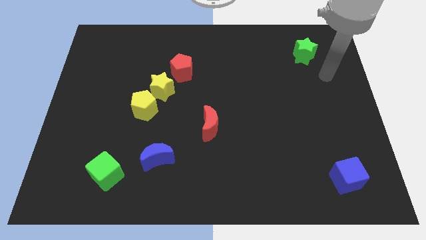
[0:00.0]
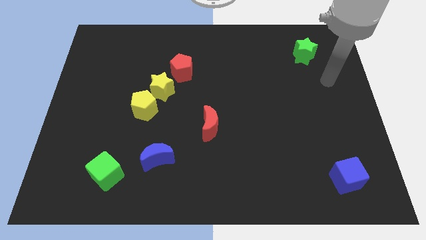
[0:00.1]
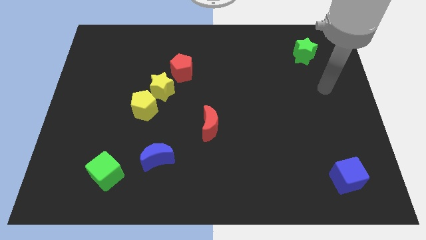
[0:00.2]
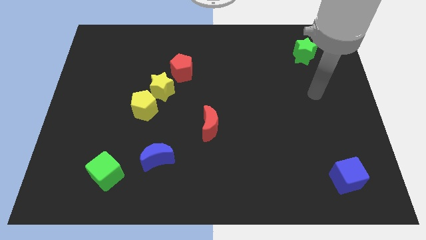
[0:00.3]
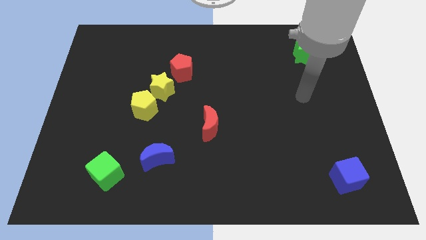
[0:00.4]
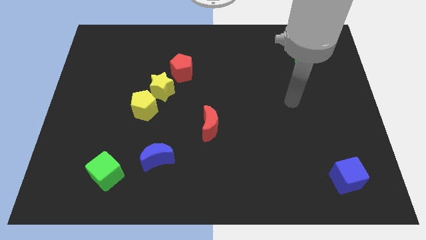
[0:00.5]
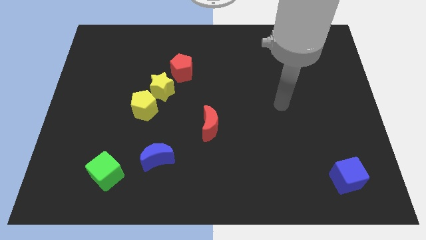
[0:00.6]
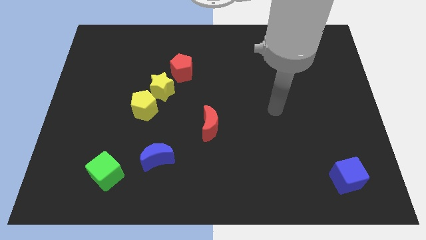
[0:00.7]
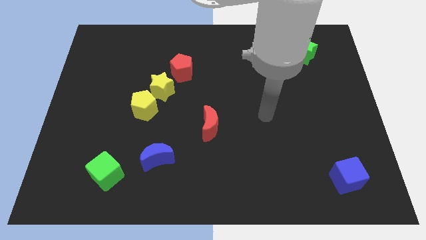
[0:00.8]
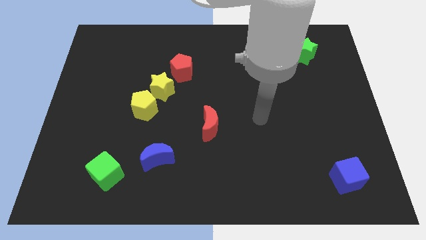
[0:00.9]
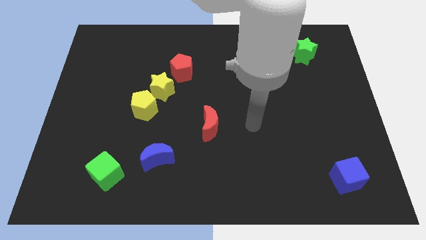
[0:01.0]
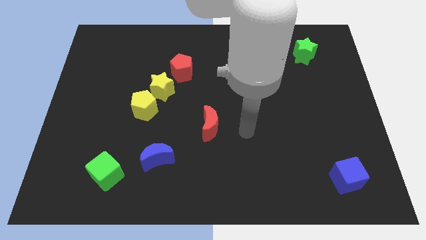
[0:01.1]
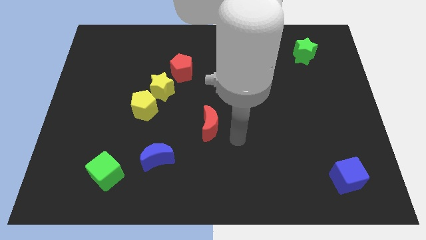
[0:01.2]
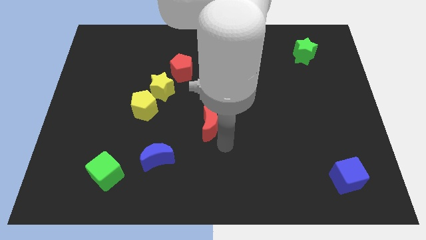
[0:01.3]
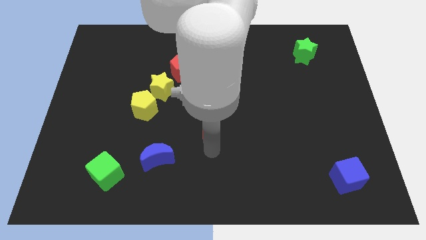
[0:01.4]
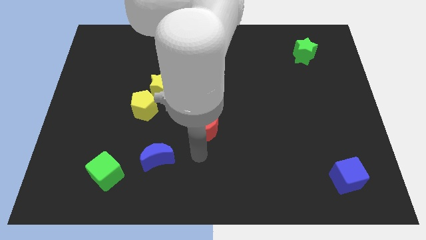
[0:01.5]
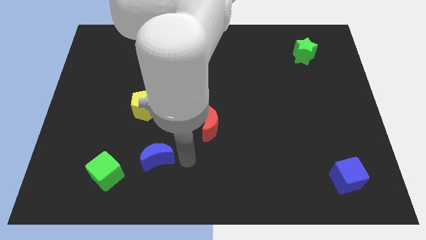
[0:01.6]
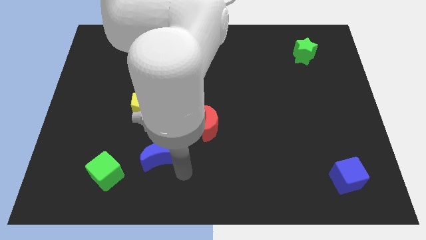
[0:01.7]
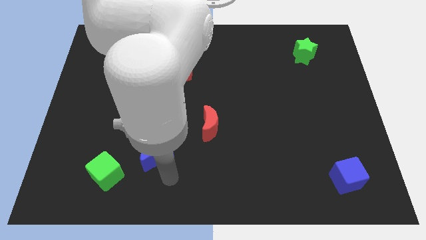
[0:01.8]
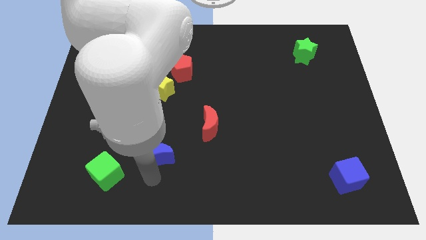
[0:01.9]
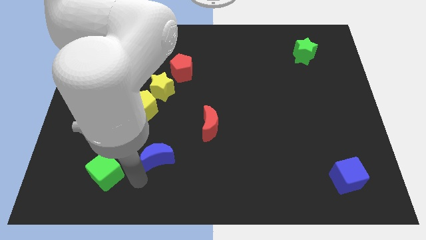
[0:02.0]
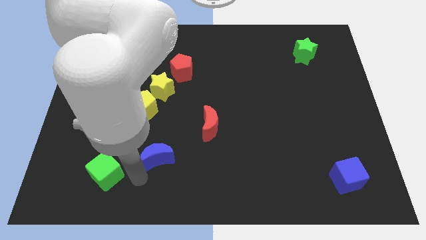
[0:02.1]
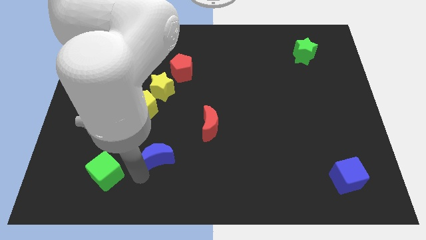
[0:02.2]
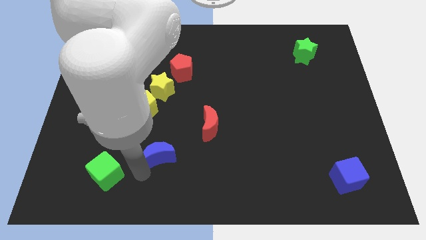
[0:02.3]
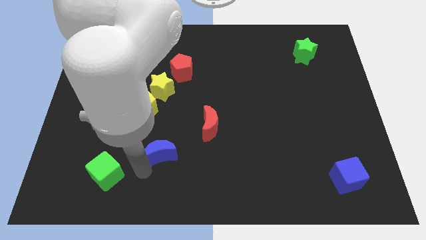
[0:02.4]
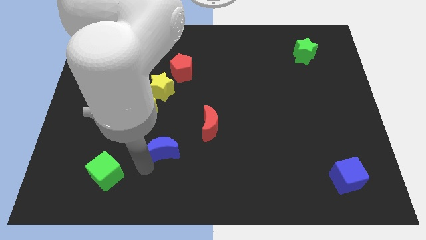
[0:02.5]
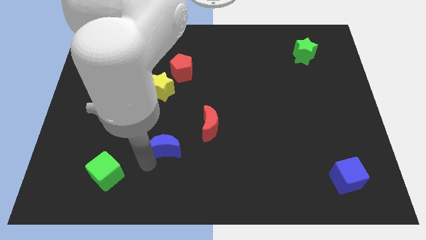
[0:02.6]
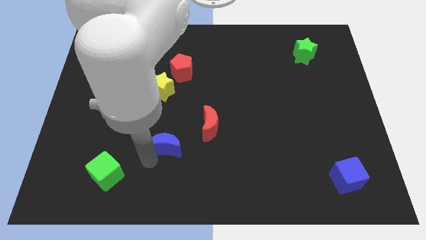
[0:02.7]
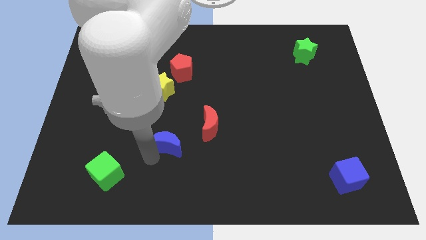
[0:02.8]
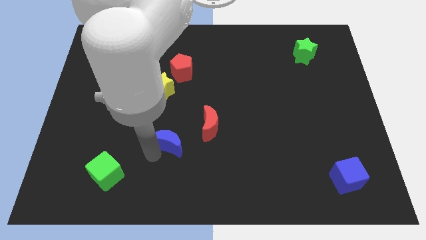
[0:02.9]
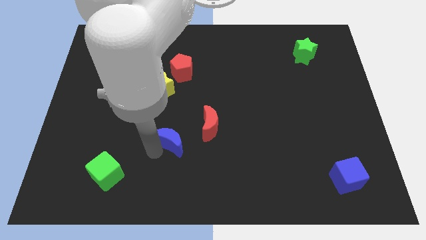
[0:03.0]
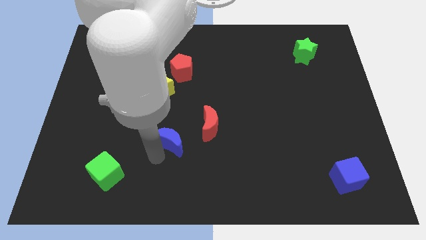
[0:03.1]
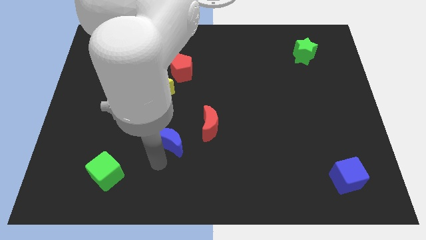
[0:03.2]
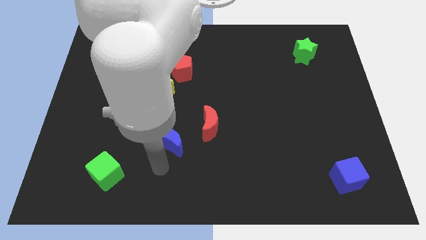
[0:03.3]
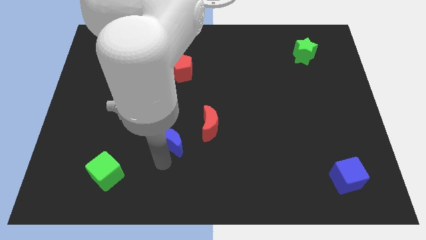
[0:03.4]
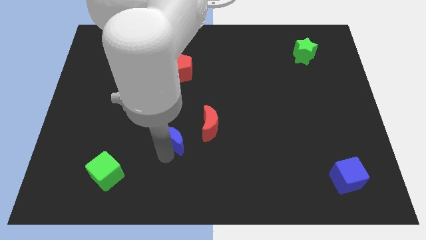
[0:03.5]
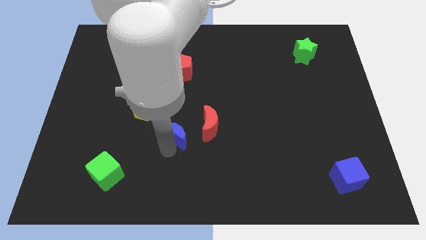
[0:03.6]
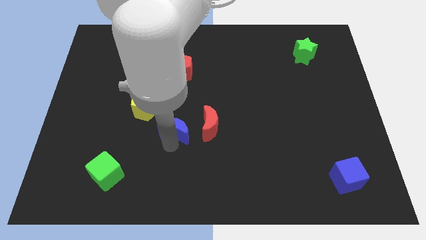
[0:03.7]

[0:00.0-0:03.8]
move the blue moon a little bit up and right diagonally

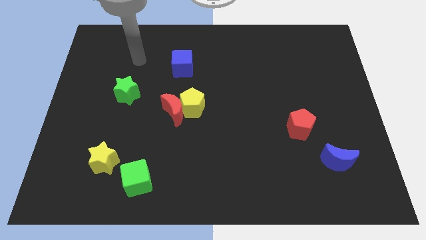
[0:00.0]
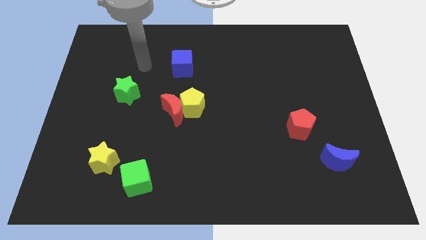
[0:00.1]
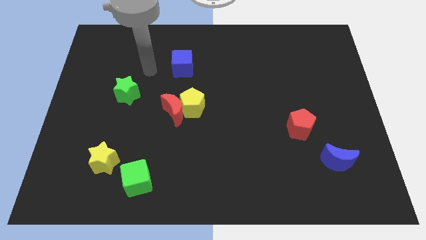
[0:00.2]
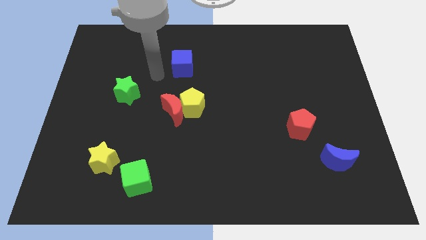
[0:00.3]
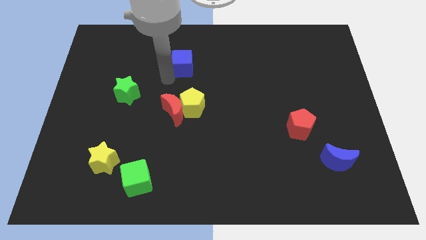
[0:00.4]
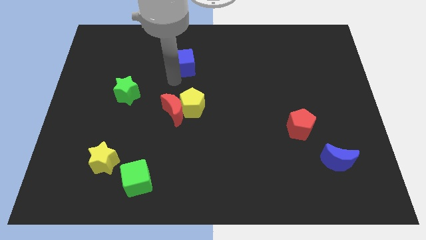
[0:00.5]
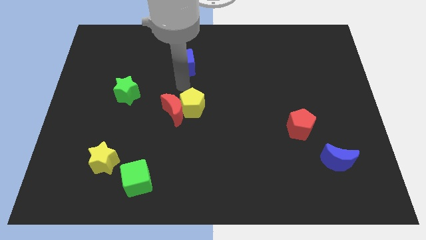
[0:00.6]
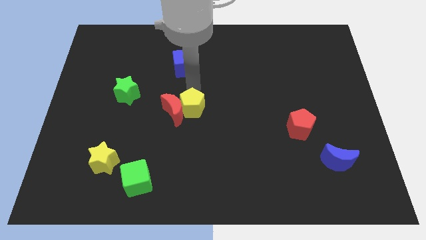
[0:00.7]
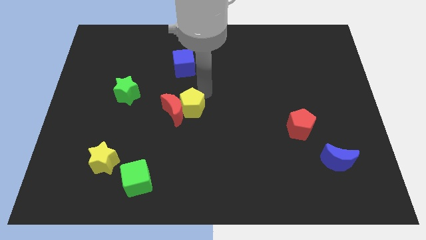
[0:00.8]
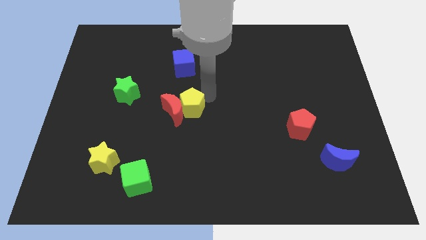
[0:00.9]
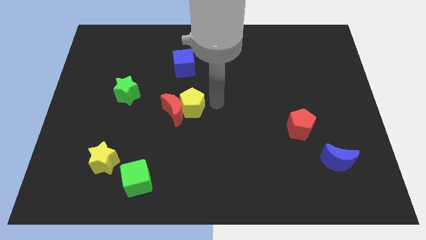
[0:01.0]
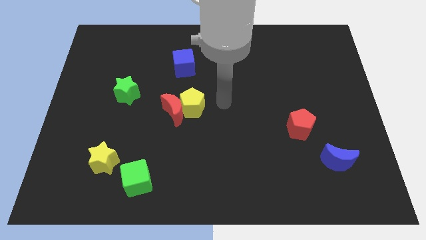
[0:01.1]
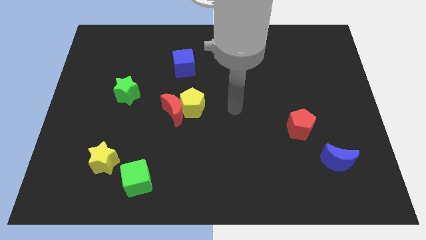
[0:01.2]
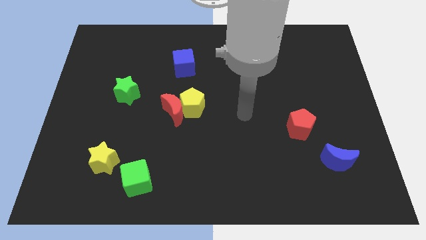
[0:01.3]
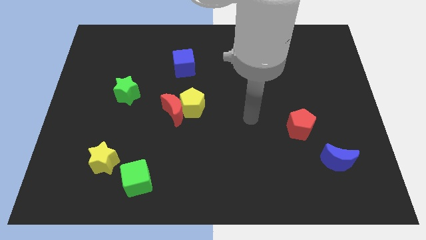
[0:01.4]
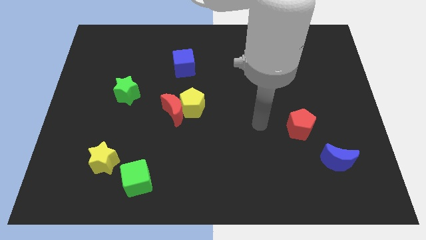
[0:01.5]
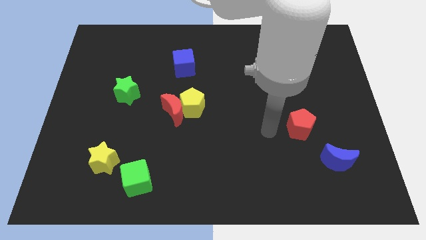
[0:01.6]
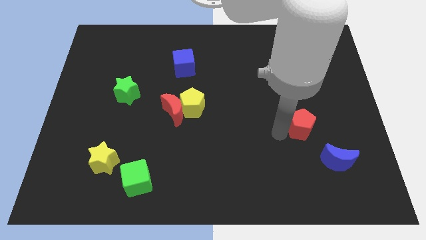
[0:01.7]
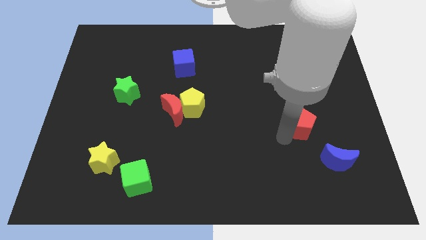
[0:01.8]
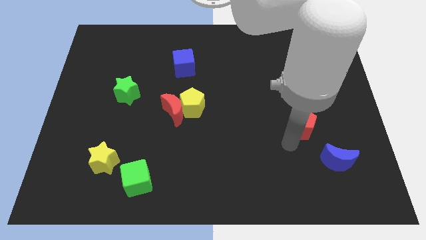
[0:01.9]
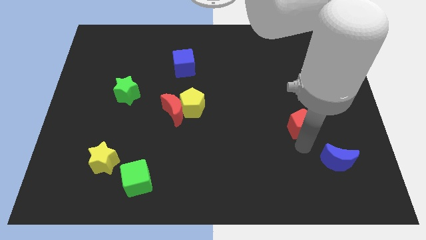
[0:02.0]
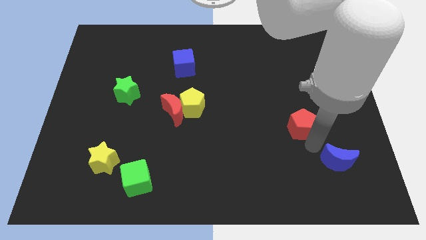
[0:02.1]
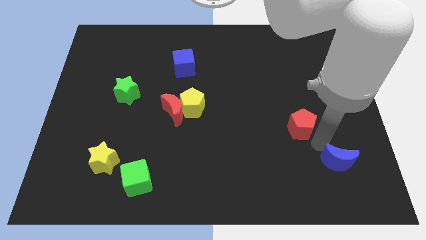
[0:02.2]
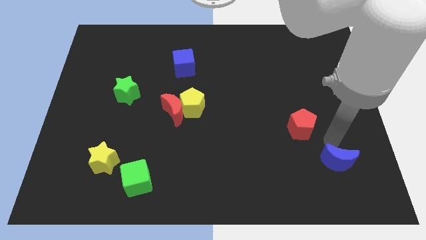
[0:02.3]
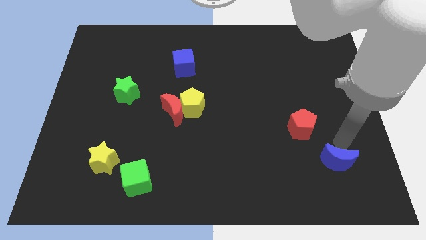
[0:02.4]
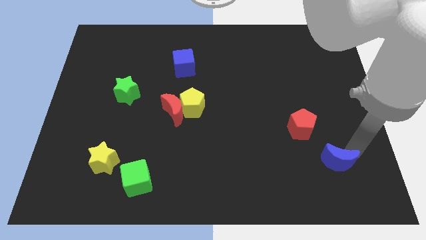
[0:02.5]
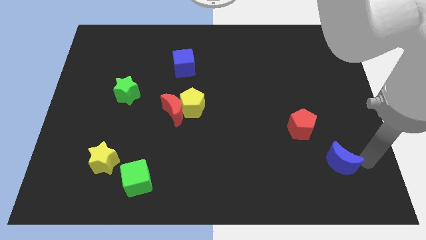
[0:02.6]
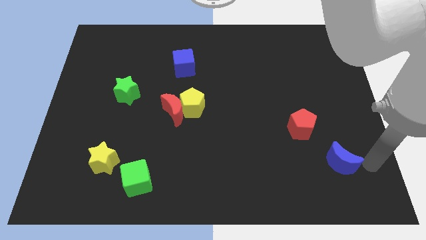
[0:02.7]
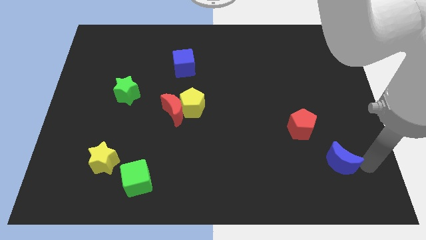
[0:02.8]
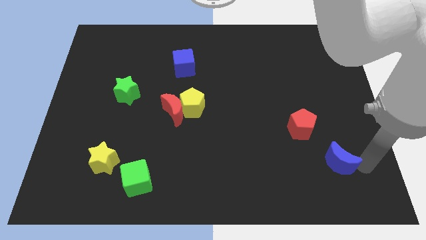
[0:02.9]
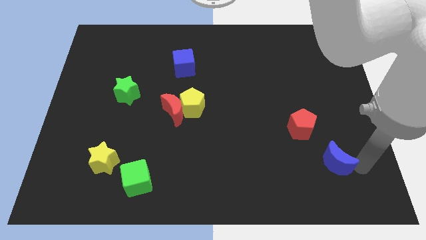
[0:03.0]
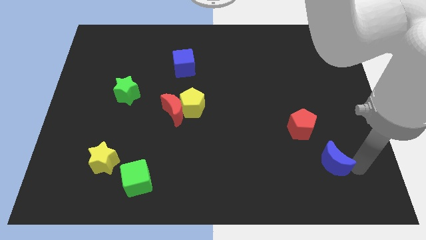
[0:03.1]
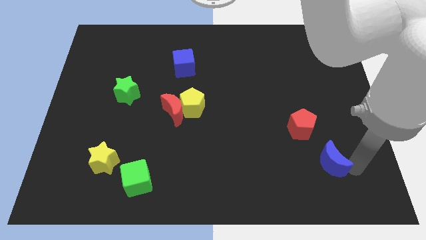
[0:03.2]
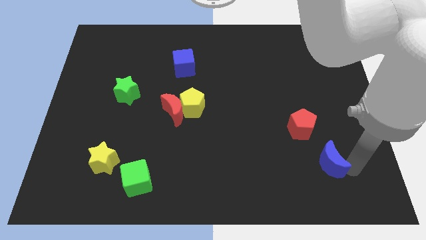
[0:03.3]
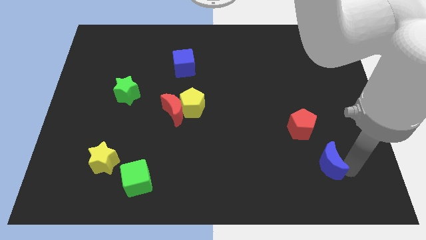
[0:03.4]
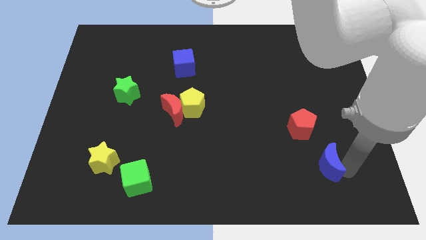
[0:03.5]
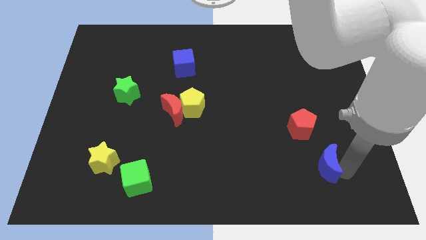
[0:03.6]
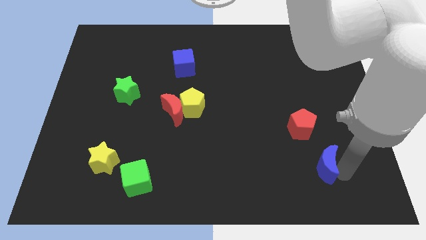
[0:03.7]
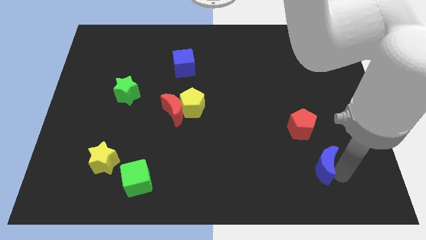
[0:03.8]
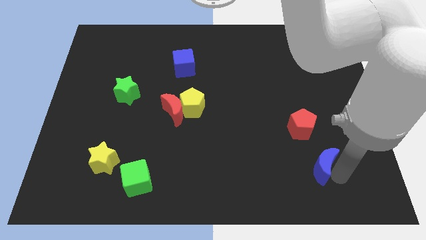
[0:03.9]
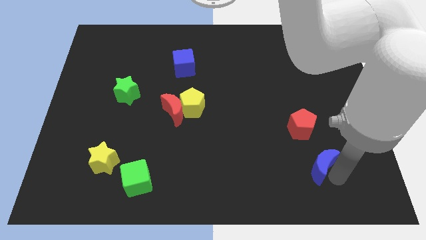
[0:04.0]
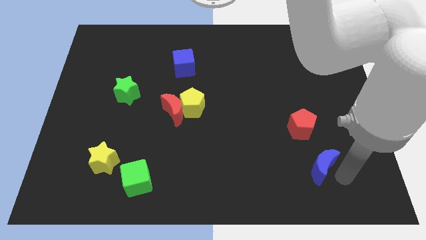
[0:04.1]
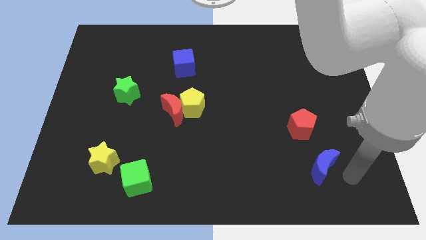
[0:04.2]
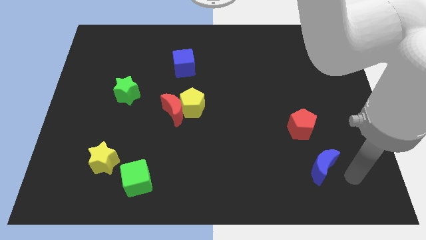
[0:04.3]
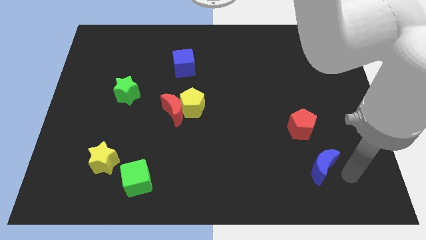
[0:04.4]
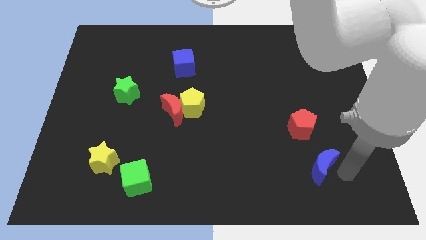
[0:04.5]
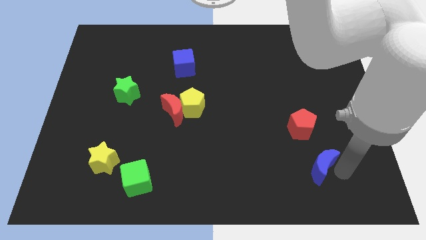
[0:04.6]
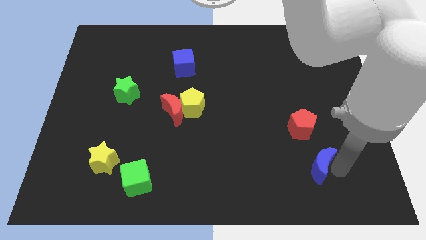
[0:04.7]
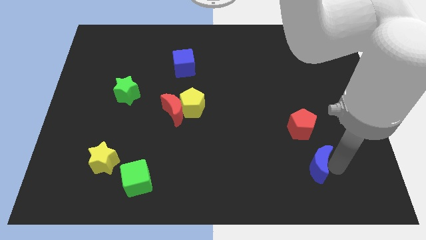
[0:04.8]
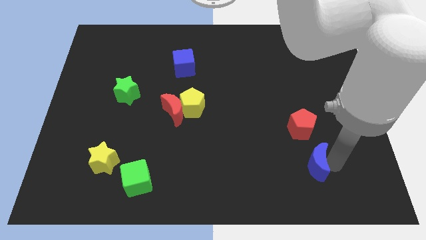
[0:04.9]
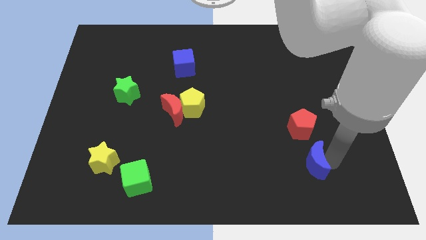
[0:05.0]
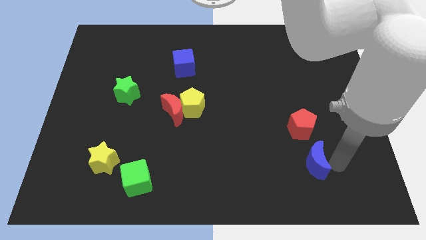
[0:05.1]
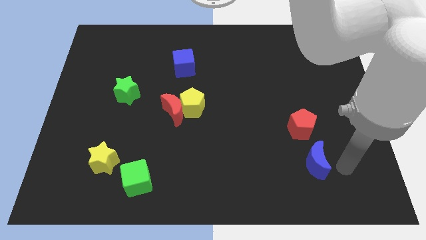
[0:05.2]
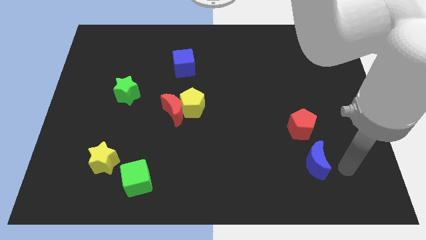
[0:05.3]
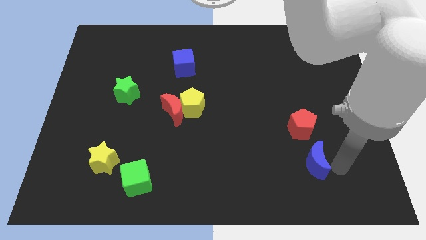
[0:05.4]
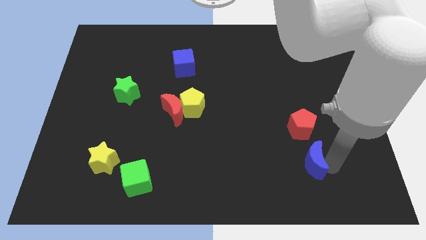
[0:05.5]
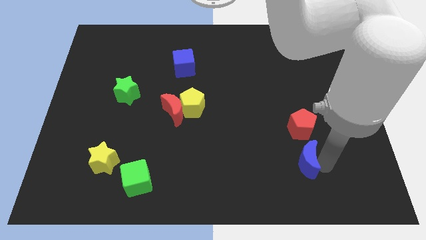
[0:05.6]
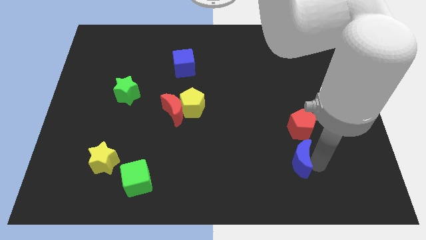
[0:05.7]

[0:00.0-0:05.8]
push the blue moon left a little bit
